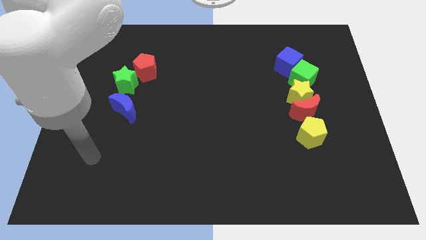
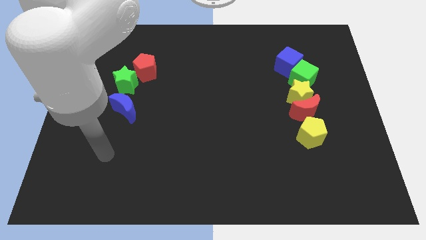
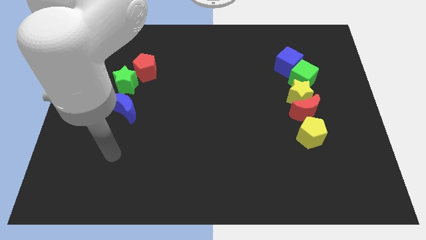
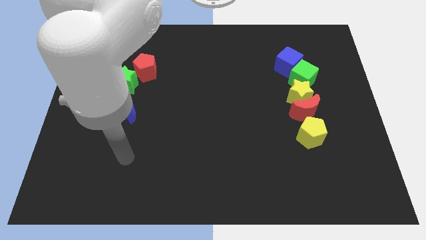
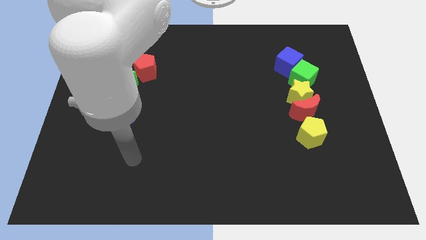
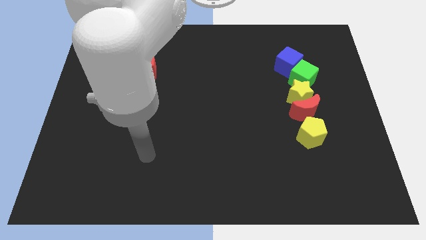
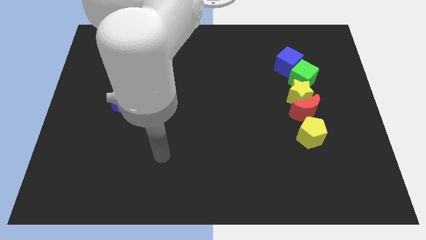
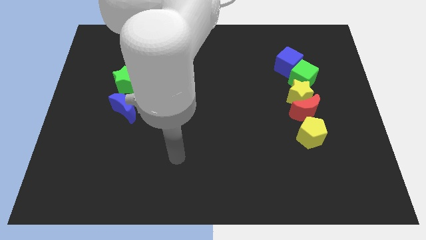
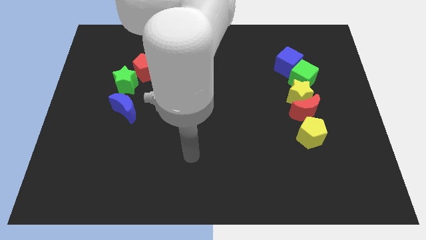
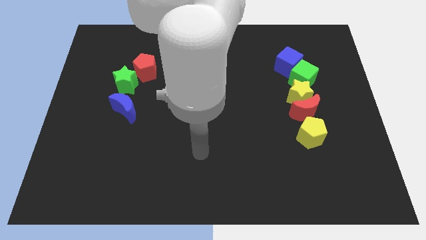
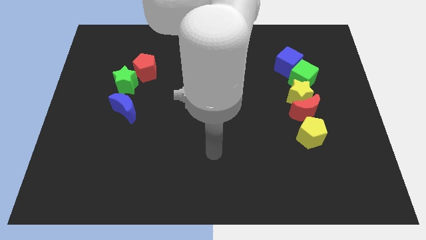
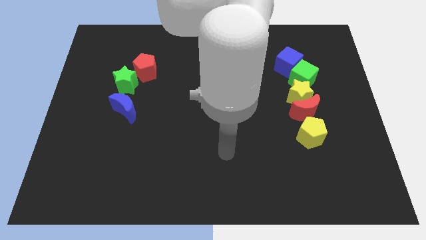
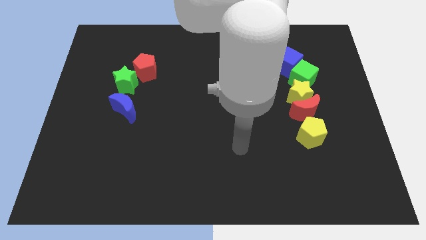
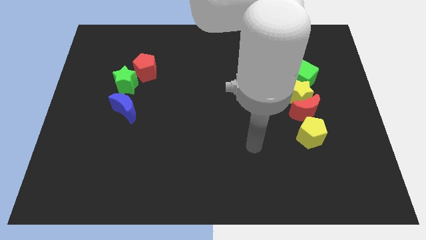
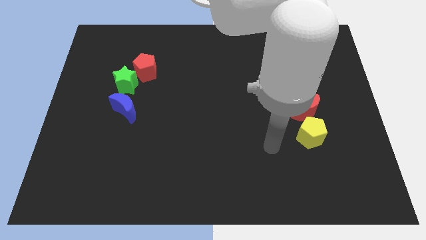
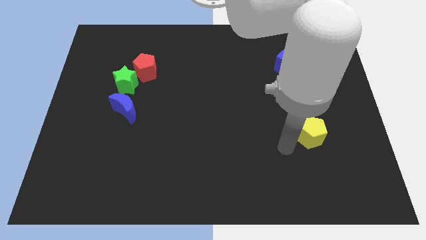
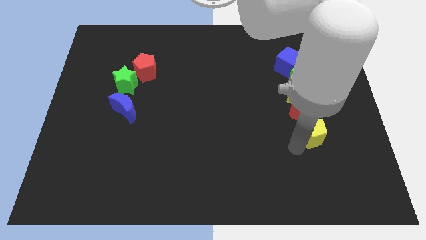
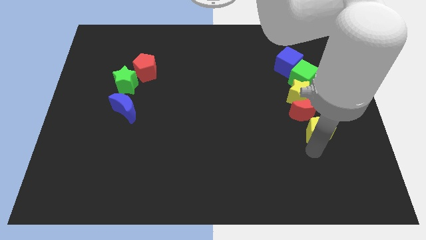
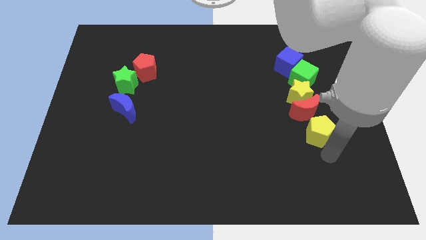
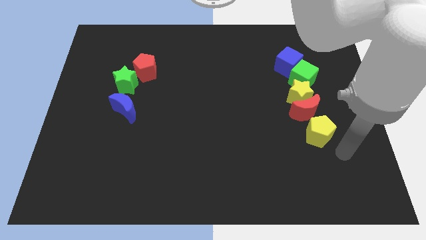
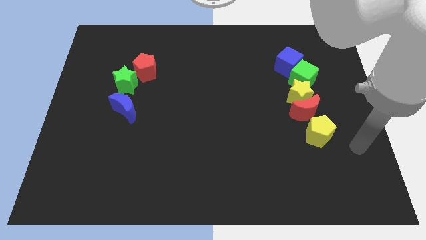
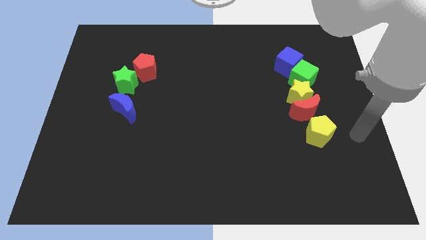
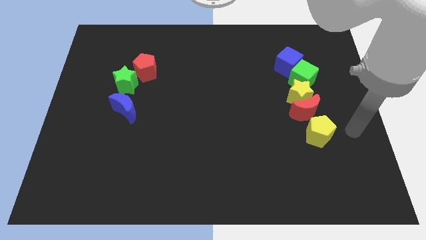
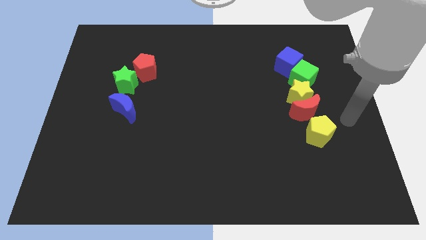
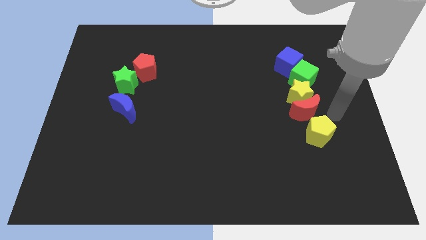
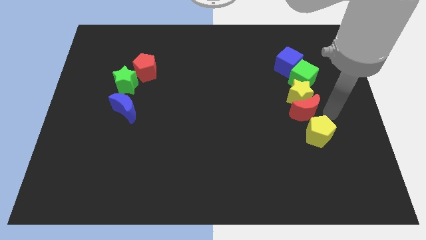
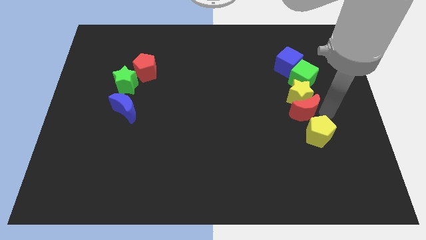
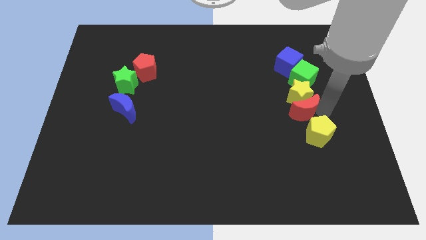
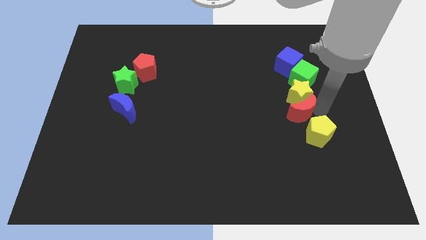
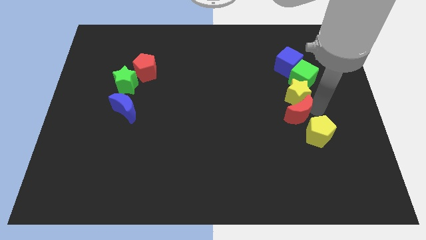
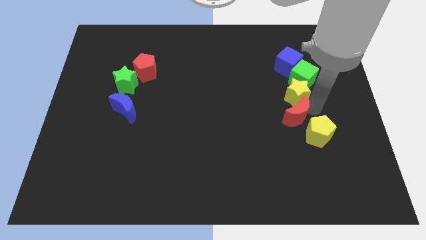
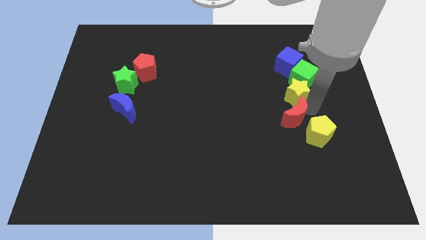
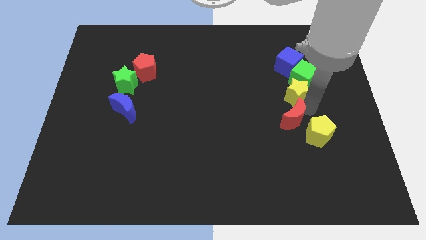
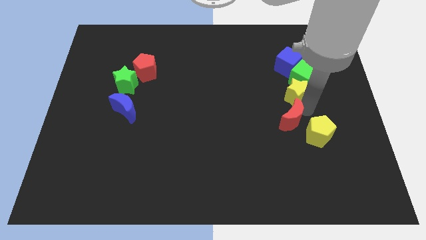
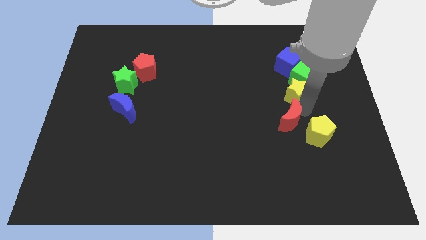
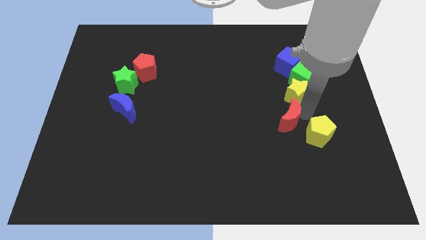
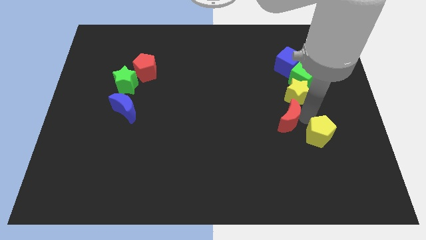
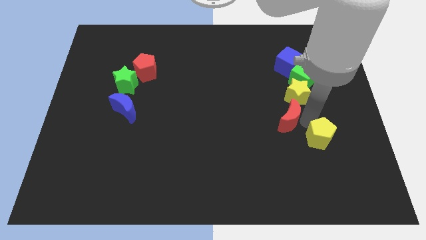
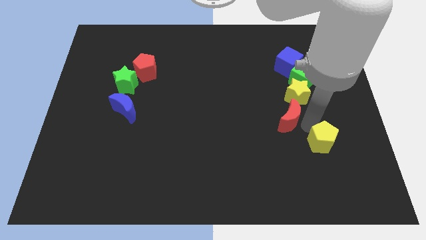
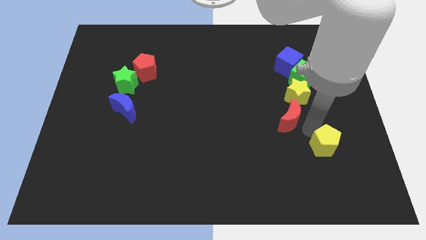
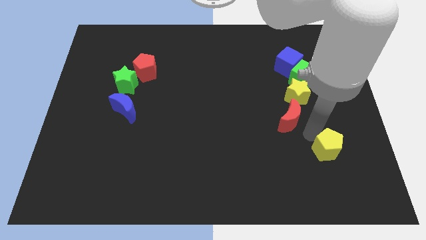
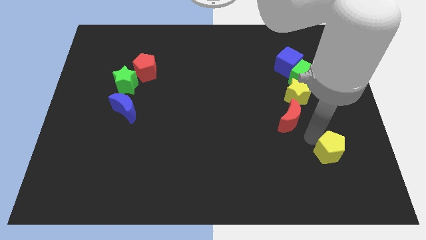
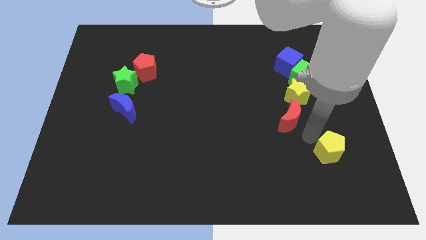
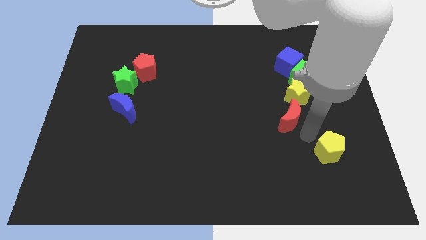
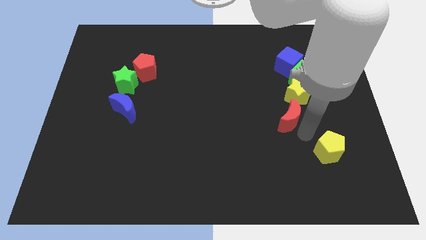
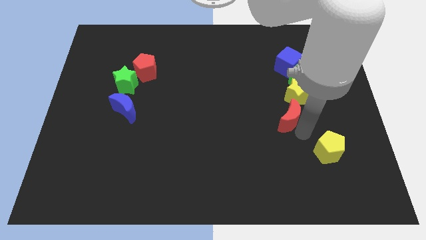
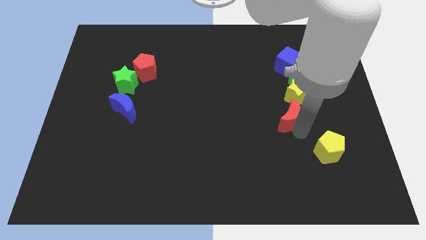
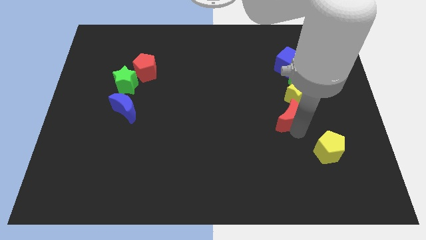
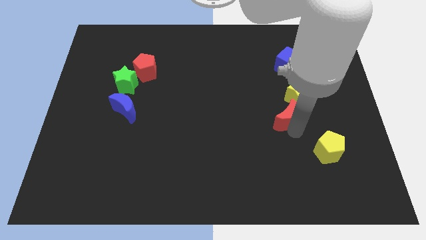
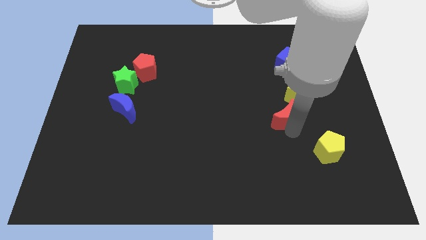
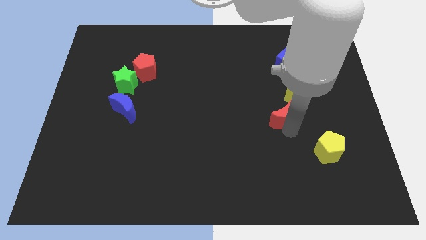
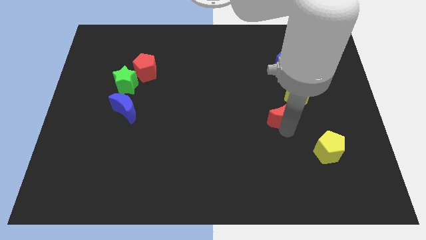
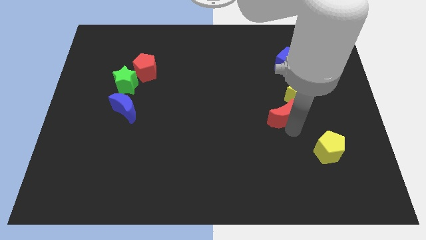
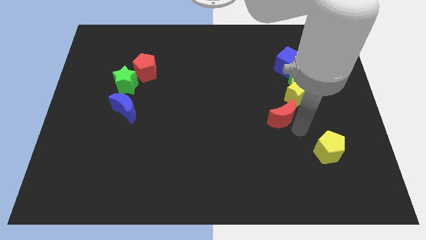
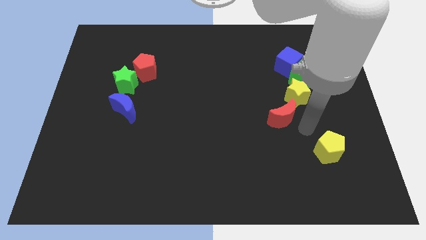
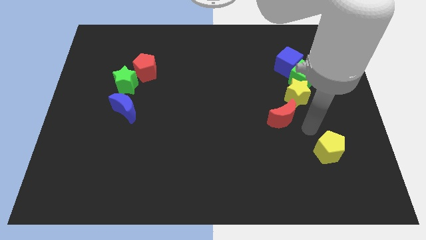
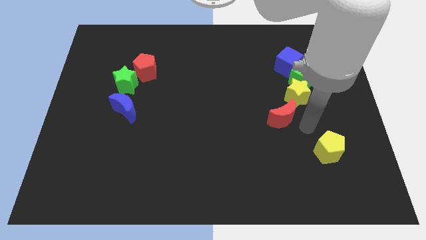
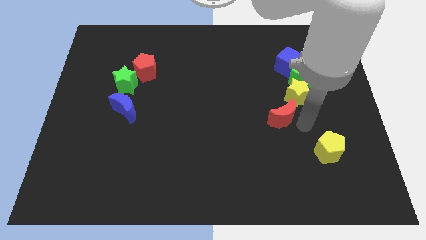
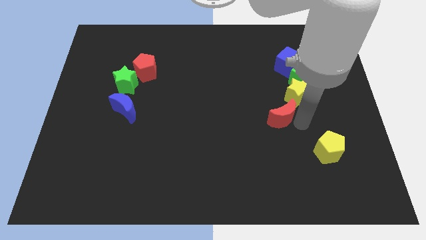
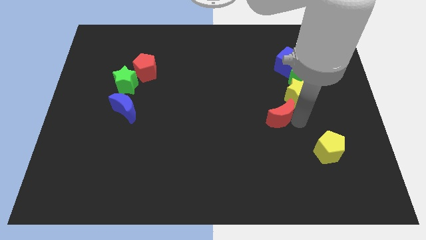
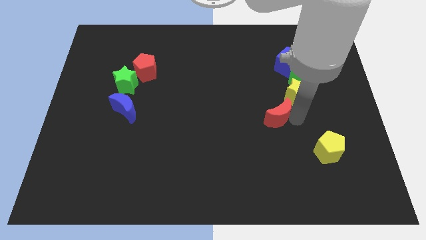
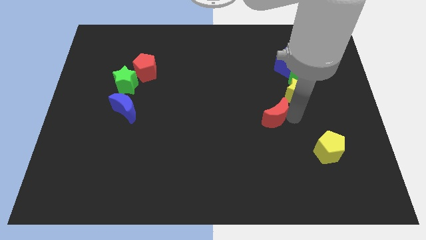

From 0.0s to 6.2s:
slightly move the red moon left

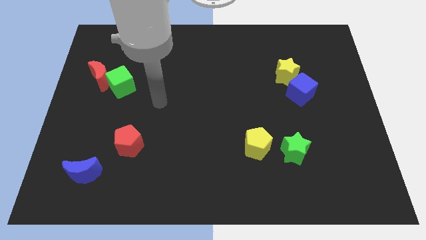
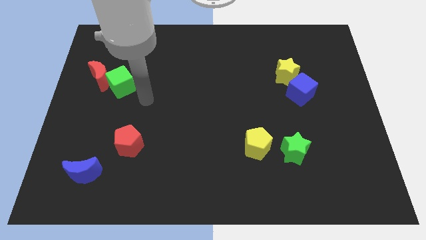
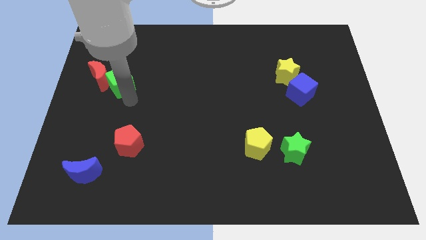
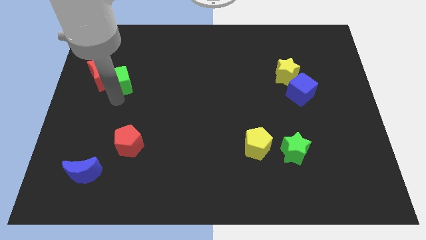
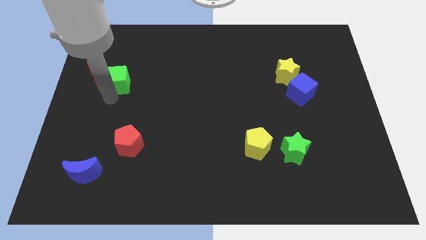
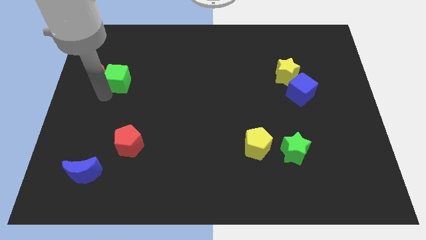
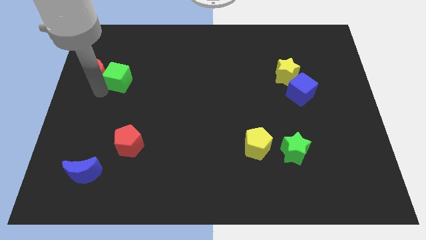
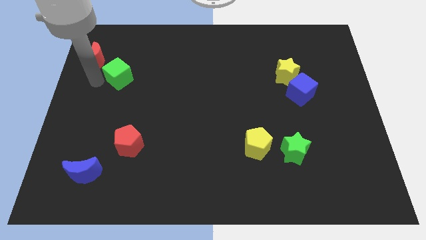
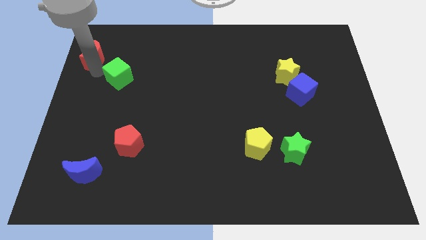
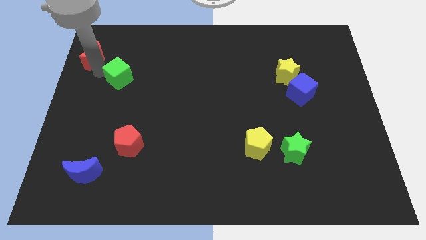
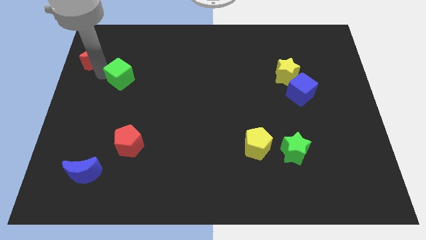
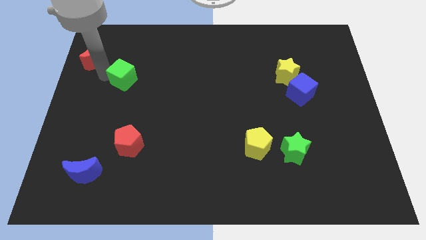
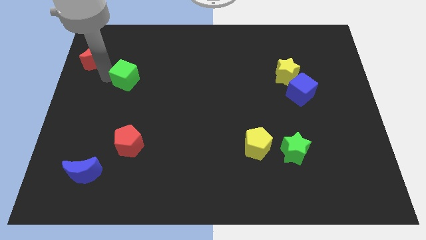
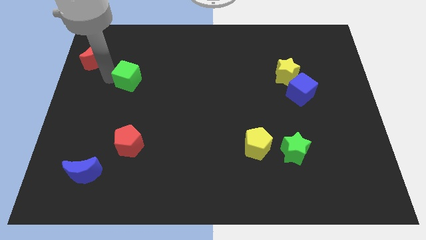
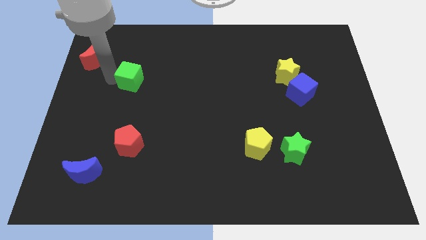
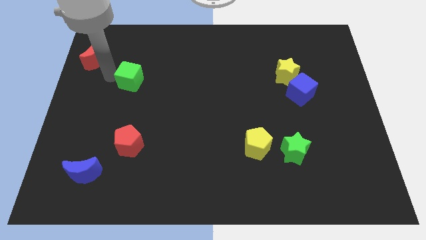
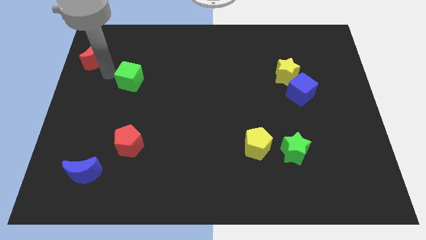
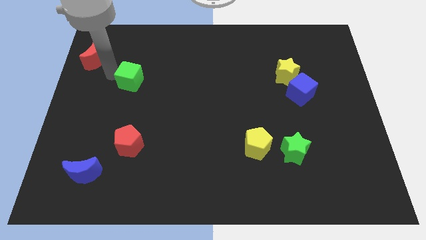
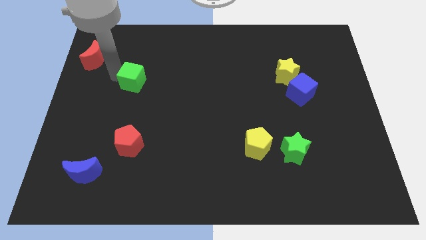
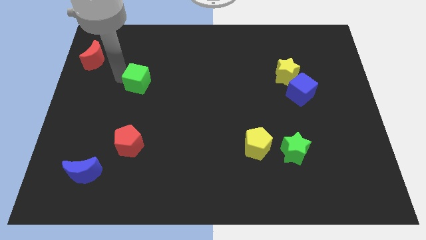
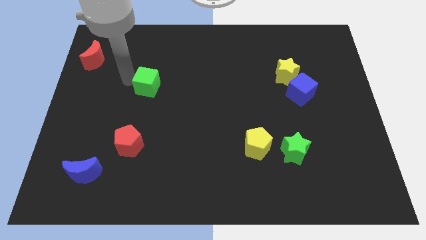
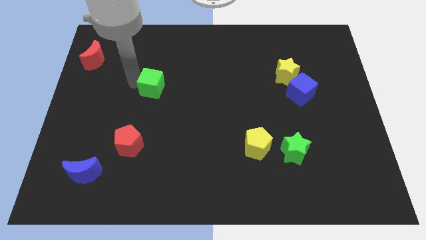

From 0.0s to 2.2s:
slightly move the green cube to the right
